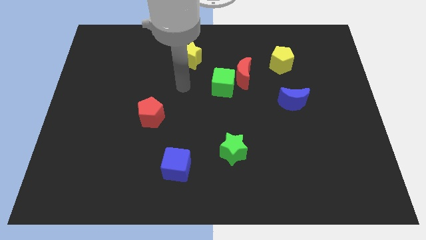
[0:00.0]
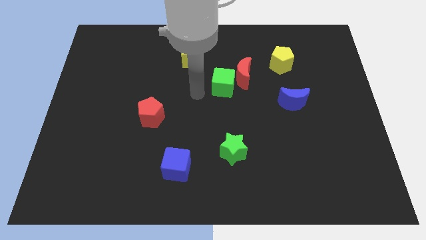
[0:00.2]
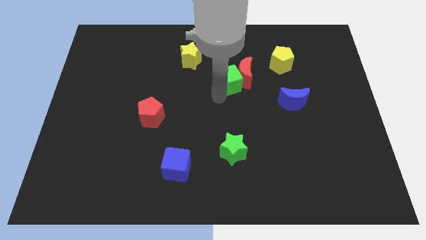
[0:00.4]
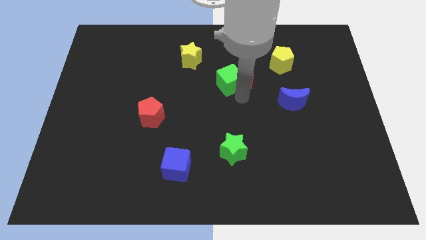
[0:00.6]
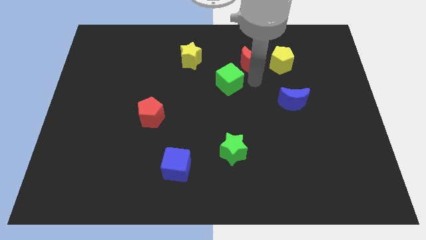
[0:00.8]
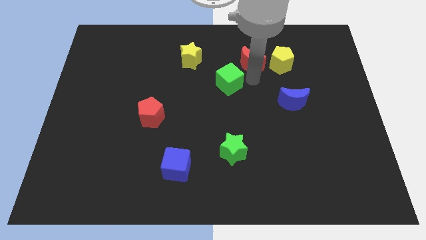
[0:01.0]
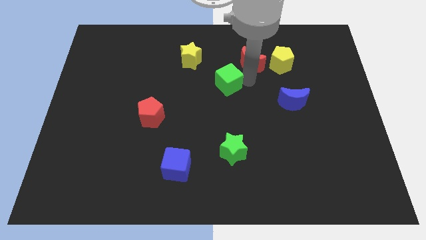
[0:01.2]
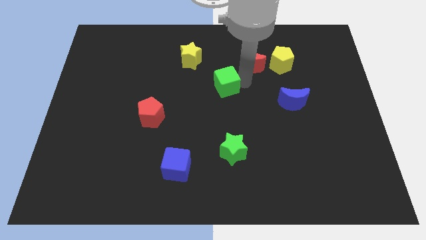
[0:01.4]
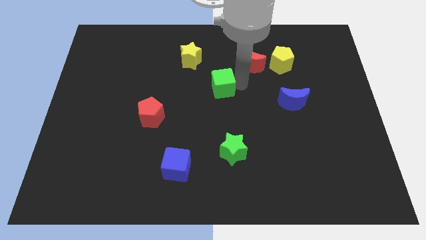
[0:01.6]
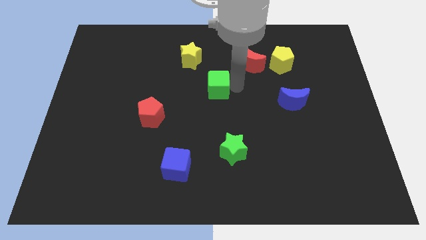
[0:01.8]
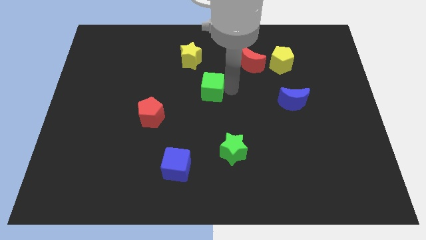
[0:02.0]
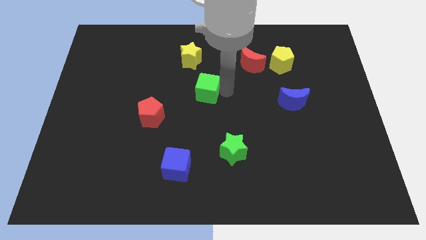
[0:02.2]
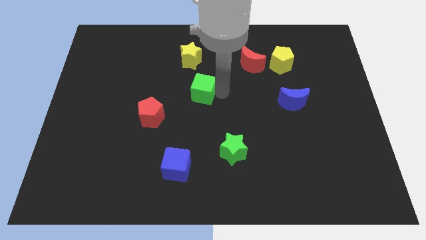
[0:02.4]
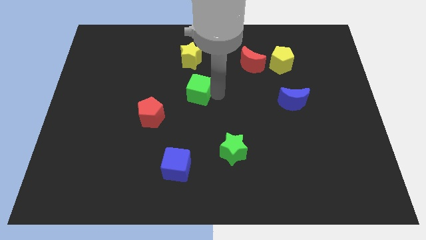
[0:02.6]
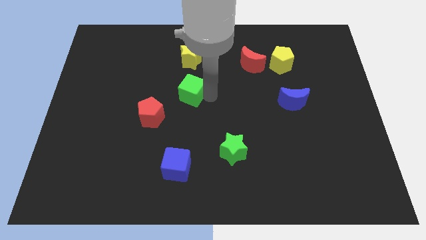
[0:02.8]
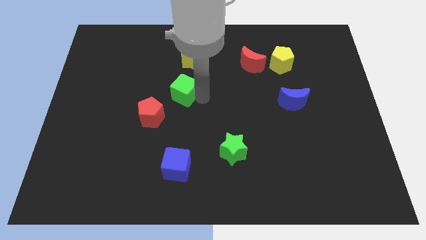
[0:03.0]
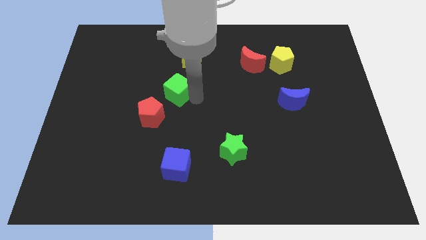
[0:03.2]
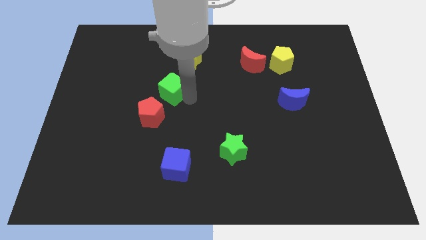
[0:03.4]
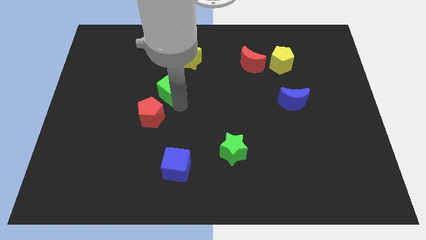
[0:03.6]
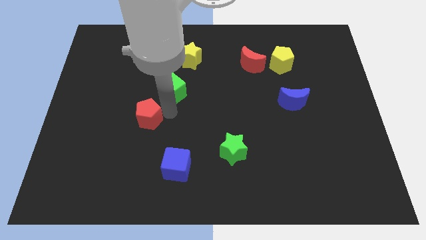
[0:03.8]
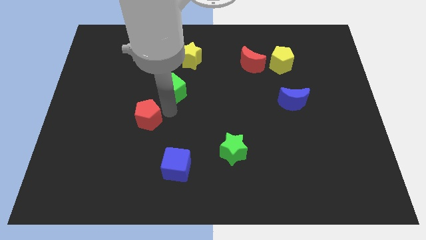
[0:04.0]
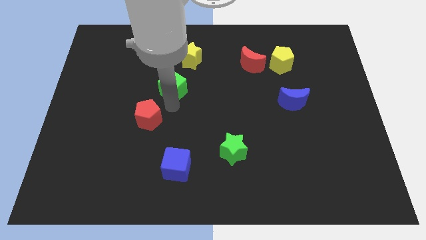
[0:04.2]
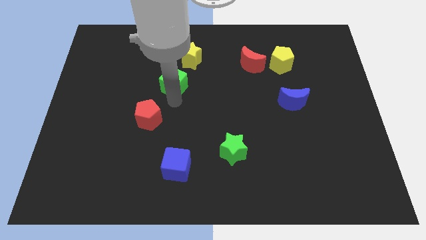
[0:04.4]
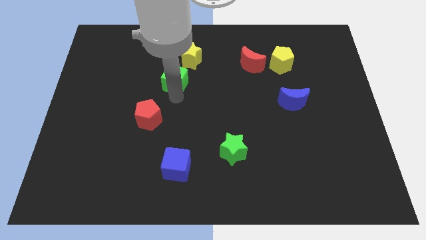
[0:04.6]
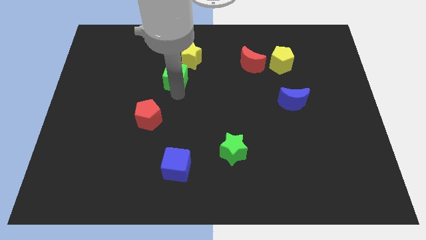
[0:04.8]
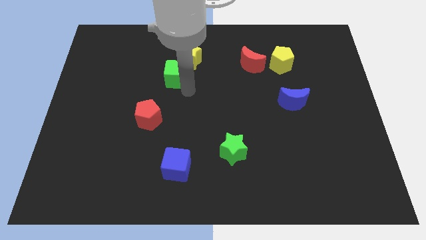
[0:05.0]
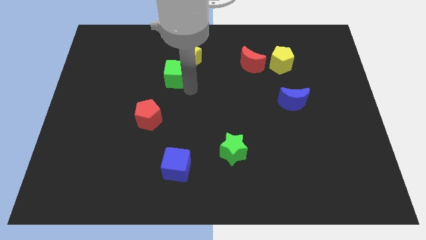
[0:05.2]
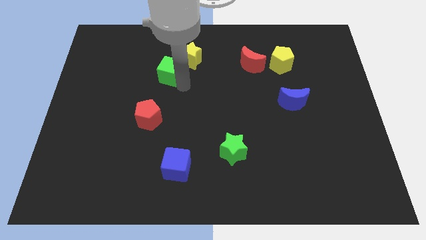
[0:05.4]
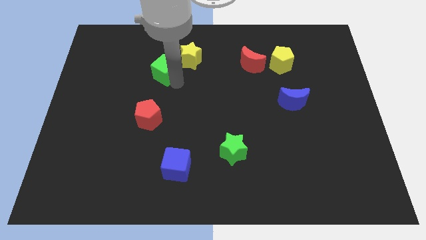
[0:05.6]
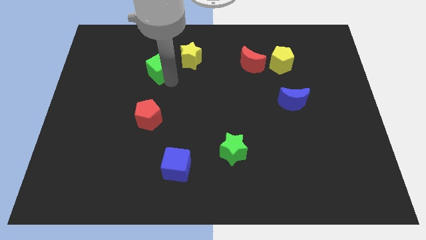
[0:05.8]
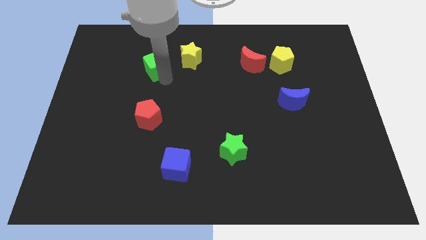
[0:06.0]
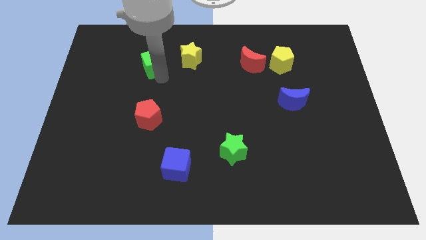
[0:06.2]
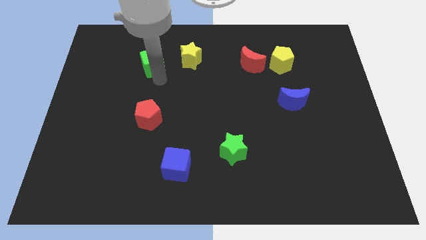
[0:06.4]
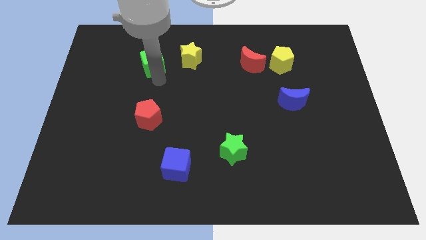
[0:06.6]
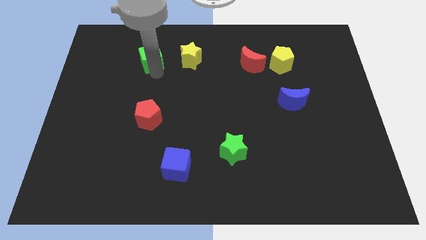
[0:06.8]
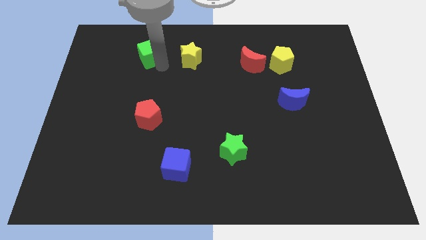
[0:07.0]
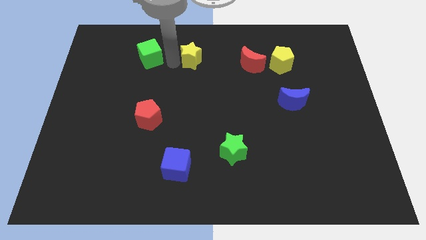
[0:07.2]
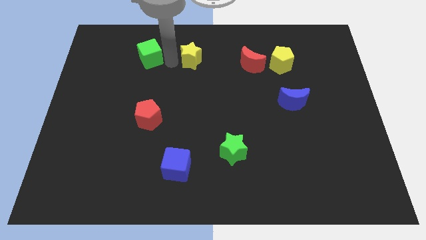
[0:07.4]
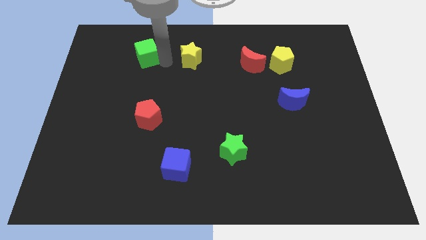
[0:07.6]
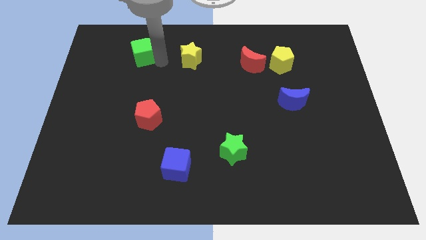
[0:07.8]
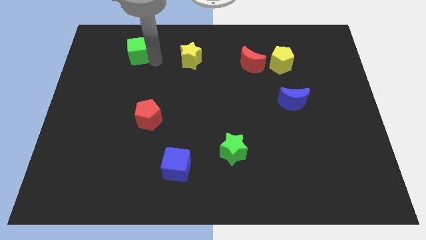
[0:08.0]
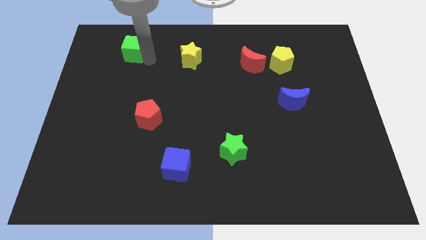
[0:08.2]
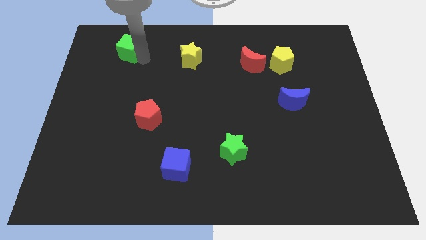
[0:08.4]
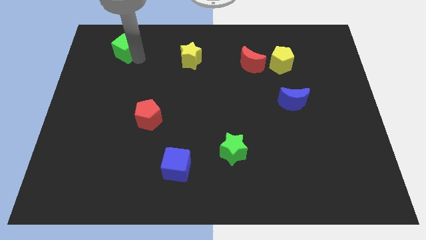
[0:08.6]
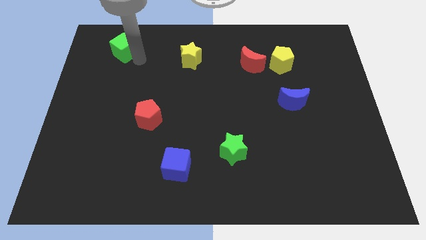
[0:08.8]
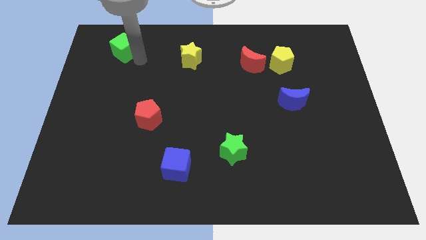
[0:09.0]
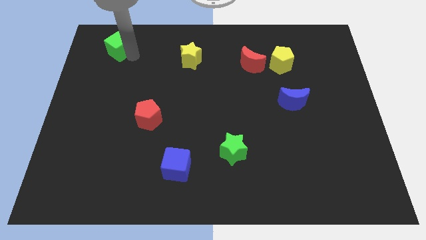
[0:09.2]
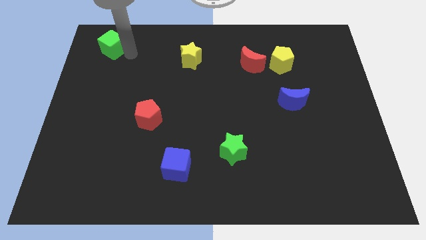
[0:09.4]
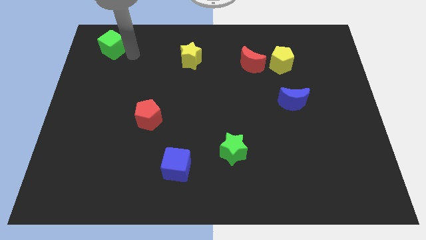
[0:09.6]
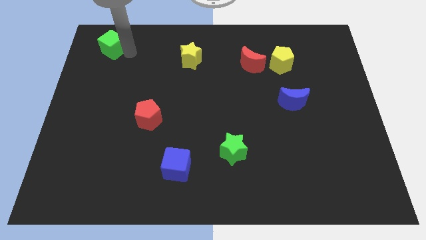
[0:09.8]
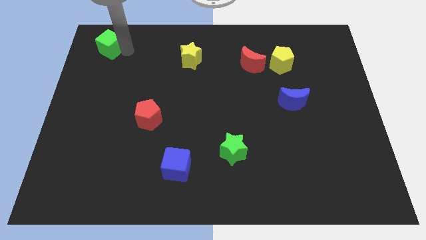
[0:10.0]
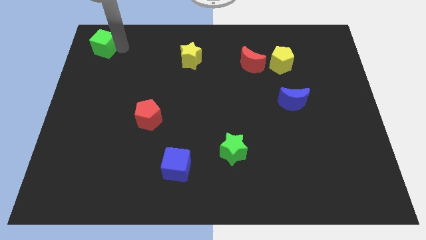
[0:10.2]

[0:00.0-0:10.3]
slide the green cube to the upper left corner

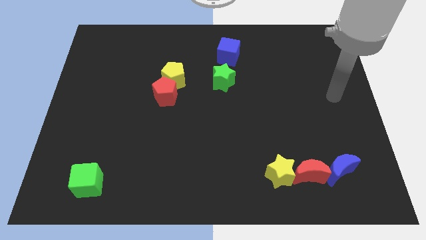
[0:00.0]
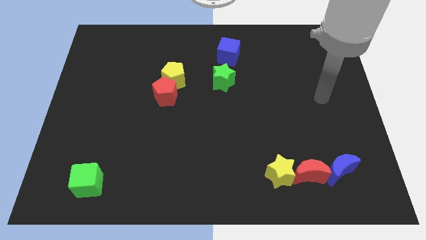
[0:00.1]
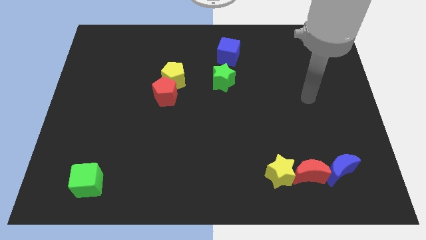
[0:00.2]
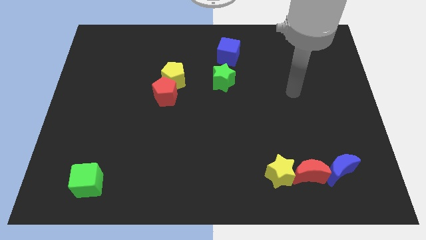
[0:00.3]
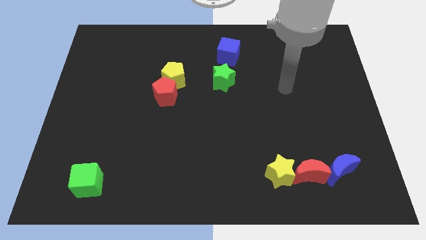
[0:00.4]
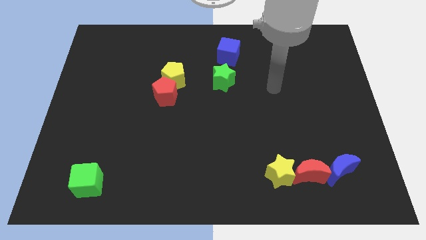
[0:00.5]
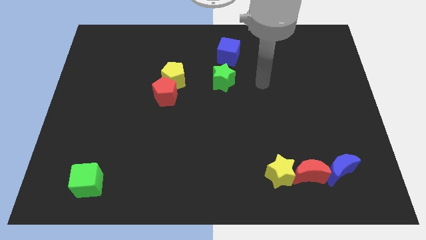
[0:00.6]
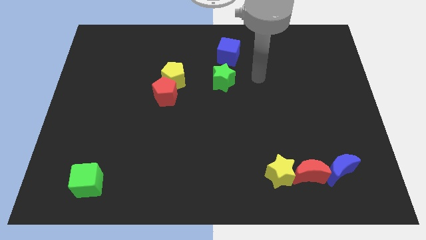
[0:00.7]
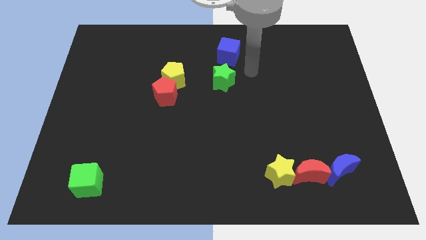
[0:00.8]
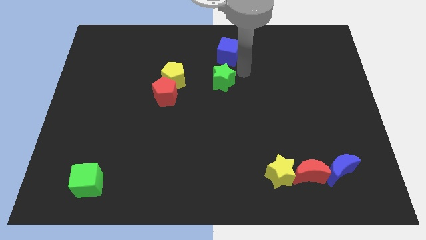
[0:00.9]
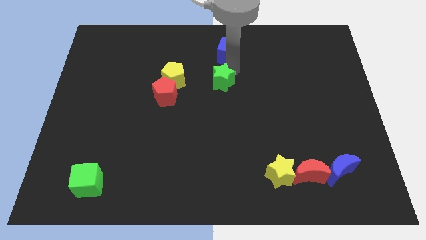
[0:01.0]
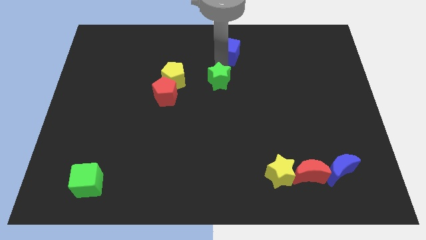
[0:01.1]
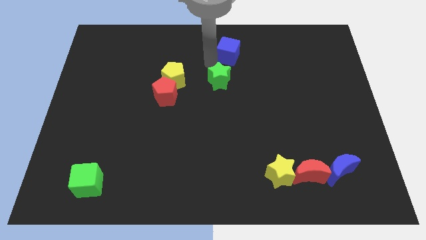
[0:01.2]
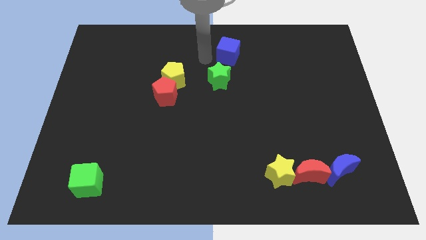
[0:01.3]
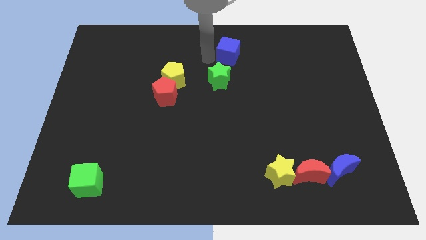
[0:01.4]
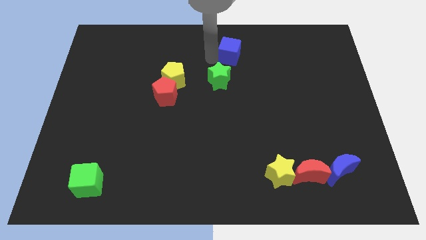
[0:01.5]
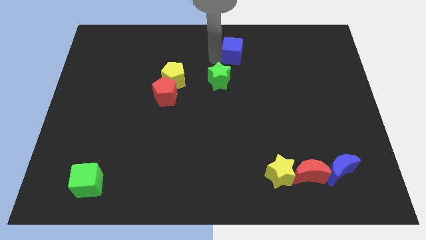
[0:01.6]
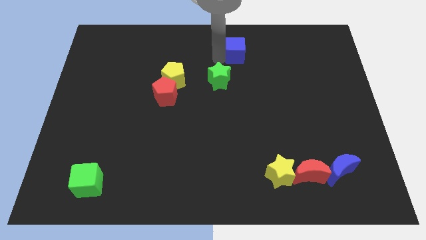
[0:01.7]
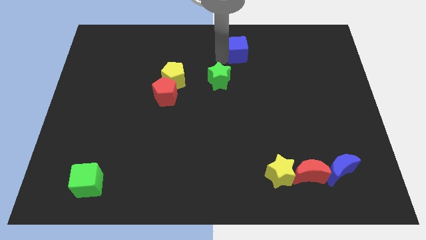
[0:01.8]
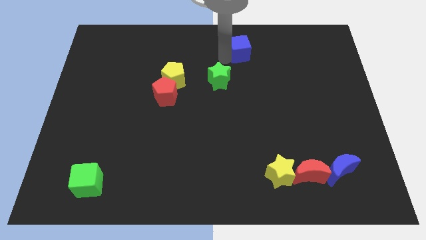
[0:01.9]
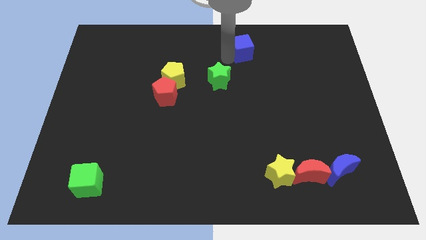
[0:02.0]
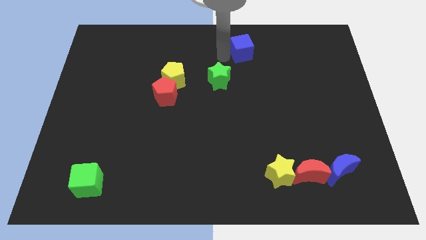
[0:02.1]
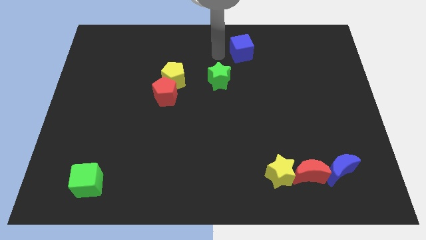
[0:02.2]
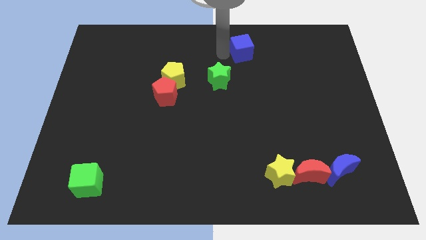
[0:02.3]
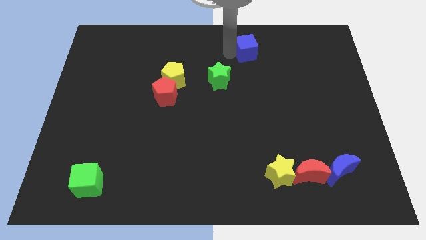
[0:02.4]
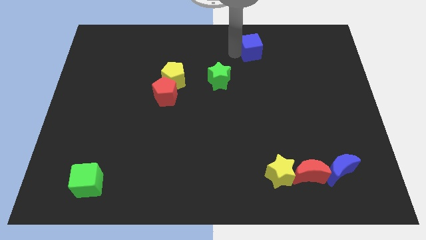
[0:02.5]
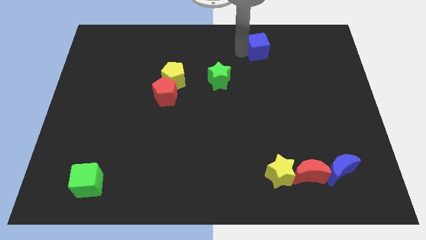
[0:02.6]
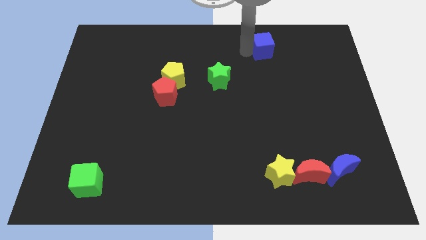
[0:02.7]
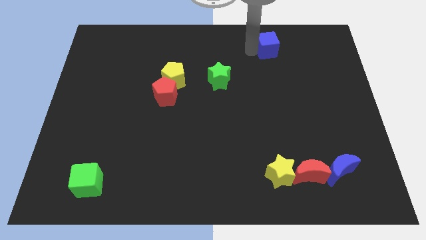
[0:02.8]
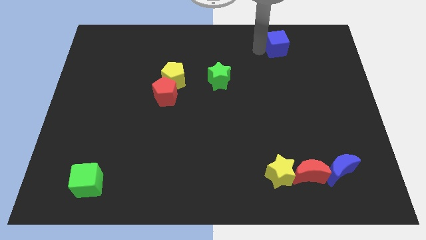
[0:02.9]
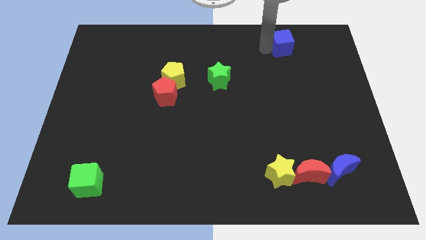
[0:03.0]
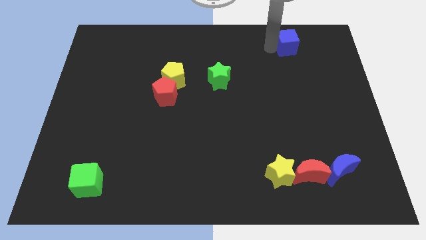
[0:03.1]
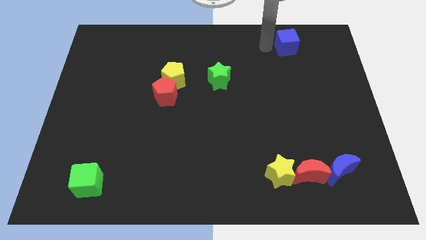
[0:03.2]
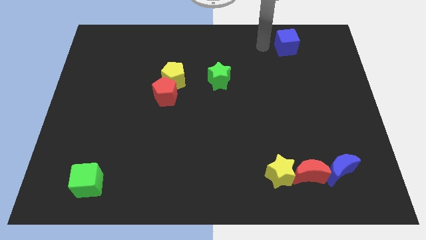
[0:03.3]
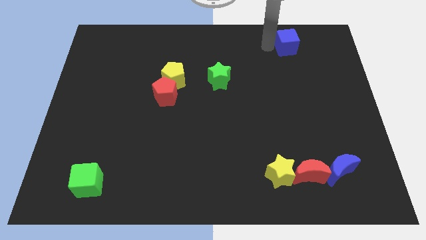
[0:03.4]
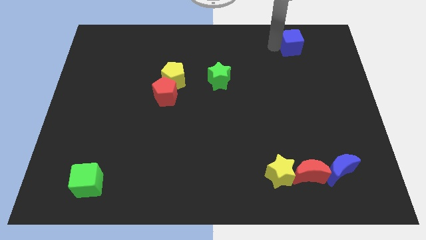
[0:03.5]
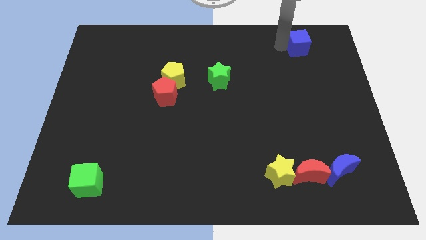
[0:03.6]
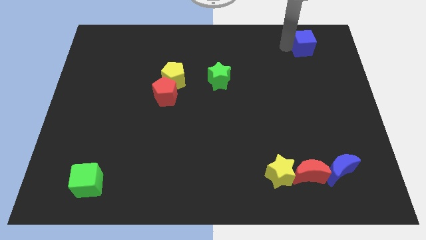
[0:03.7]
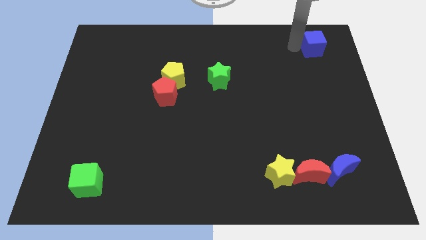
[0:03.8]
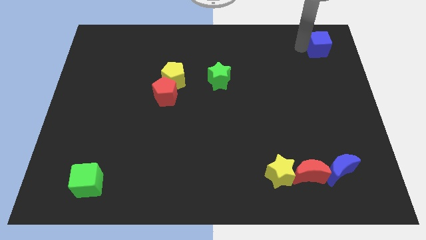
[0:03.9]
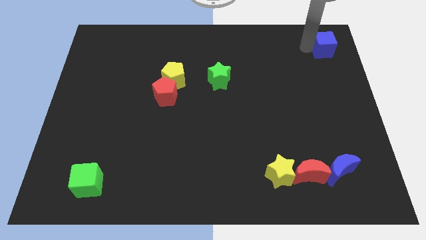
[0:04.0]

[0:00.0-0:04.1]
put the blue cube to the upper right corner
